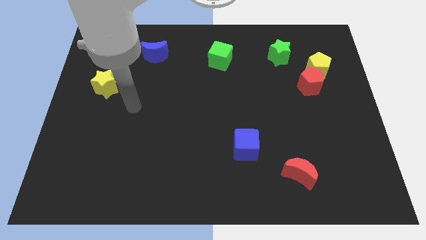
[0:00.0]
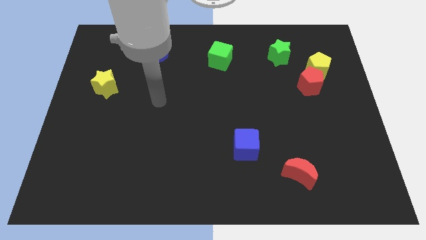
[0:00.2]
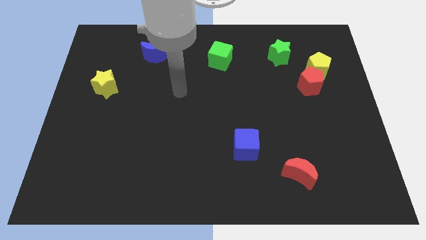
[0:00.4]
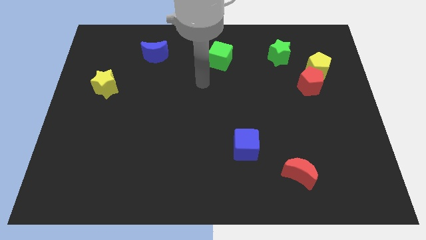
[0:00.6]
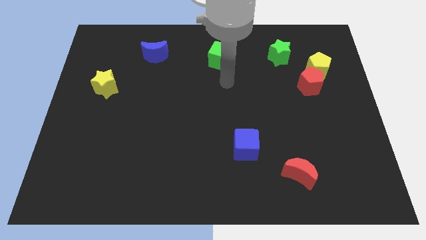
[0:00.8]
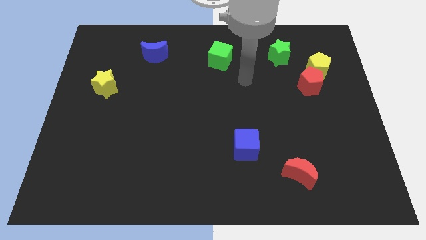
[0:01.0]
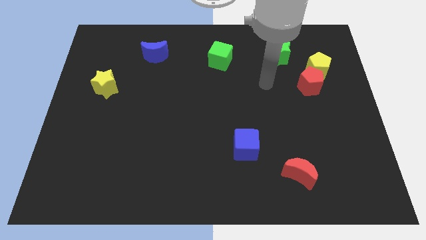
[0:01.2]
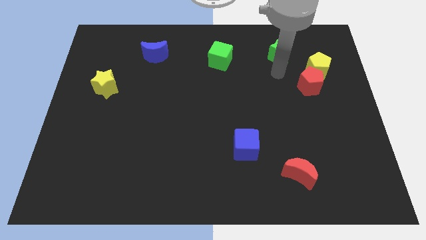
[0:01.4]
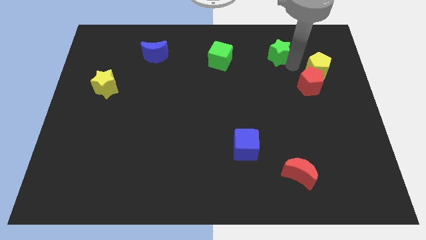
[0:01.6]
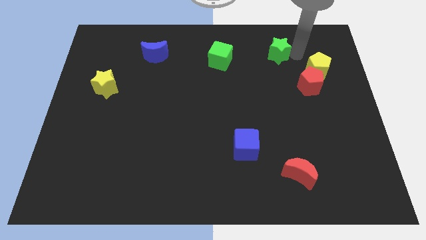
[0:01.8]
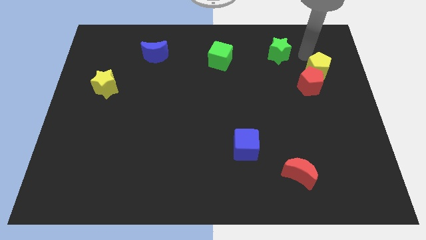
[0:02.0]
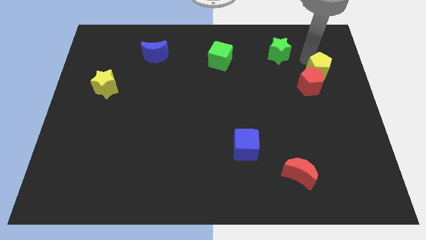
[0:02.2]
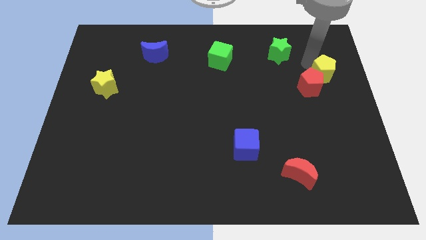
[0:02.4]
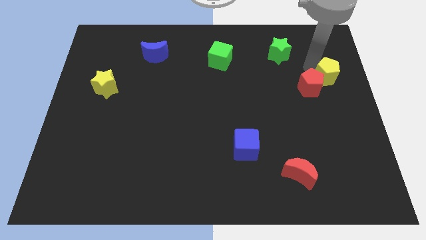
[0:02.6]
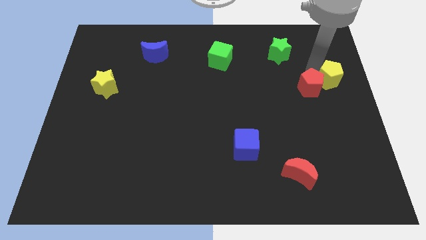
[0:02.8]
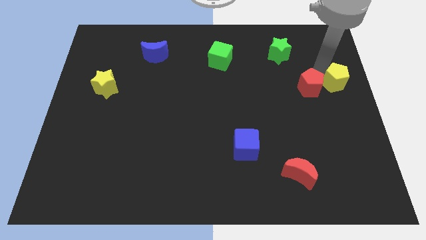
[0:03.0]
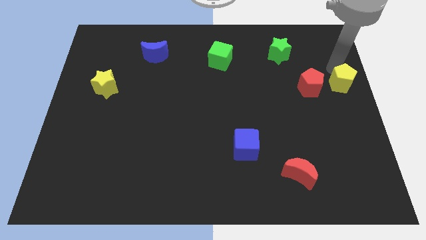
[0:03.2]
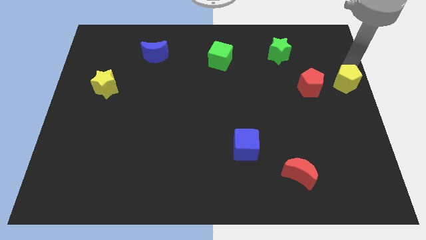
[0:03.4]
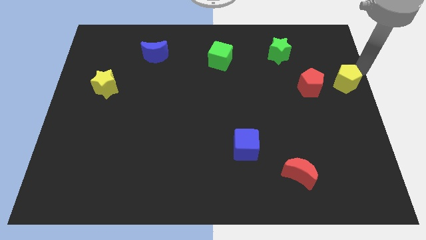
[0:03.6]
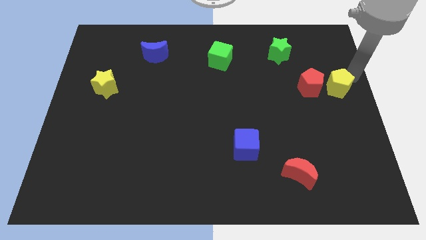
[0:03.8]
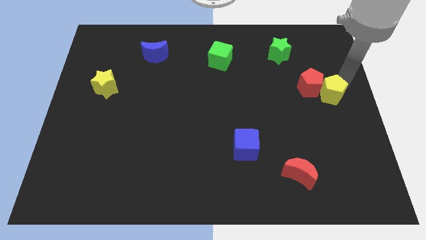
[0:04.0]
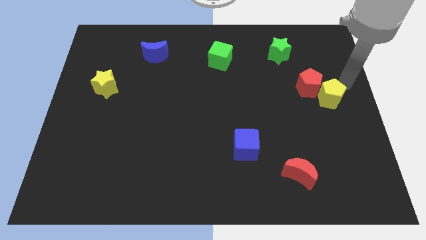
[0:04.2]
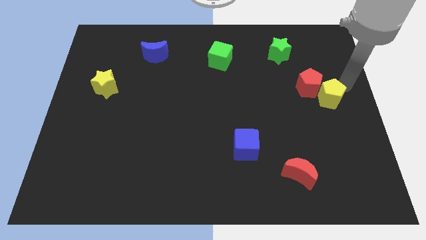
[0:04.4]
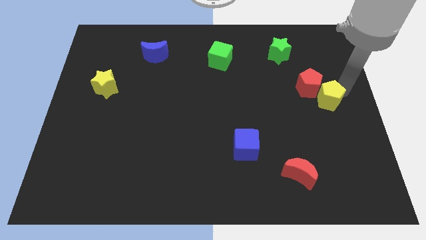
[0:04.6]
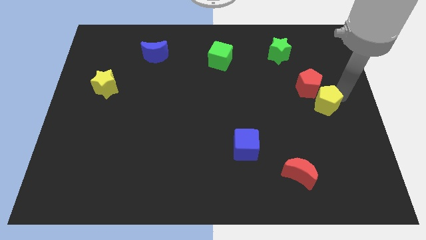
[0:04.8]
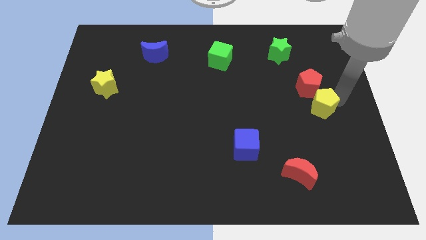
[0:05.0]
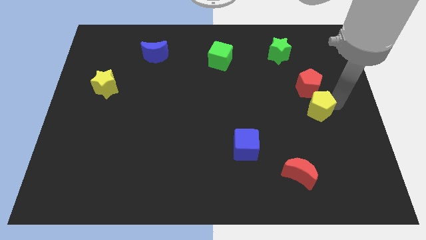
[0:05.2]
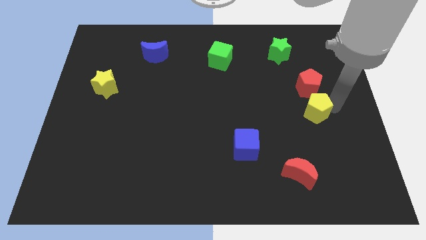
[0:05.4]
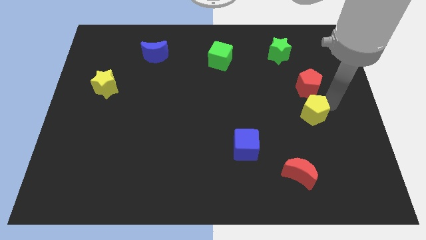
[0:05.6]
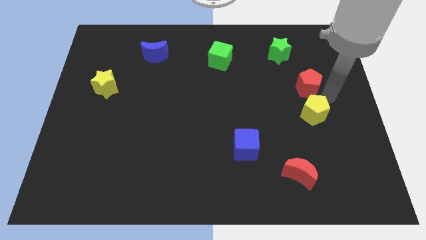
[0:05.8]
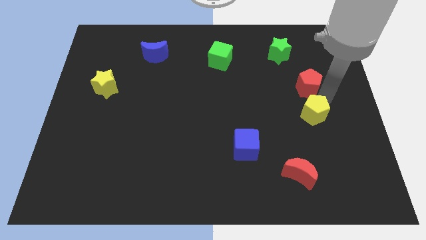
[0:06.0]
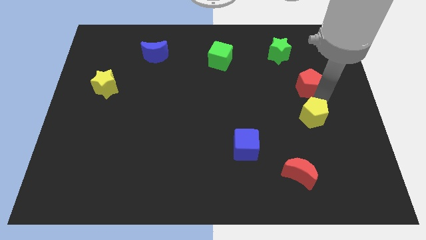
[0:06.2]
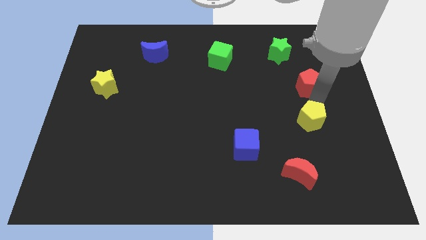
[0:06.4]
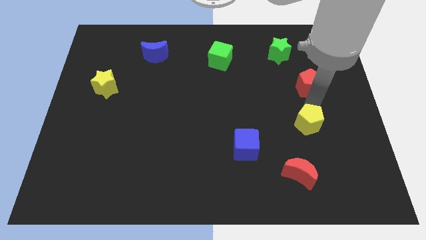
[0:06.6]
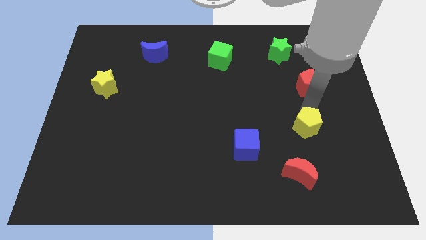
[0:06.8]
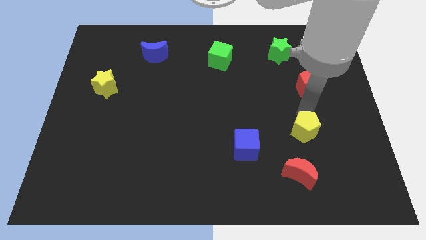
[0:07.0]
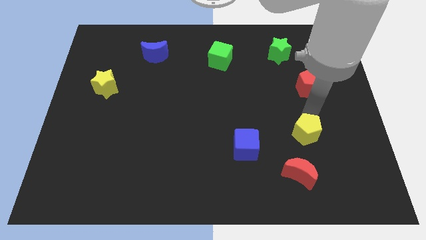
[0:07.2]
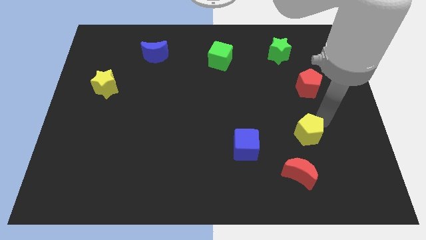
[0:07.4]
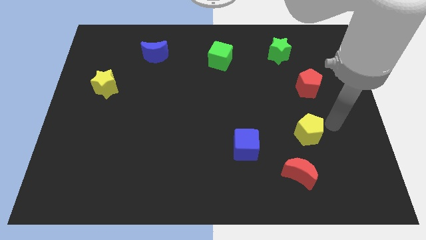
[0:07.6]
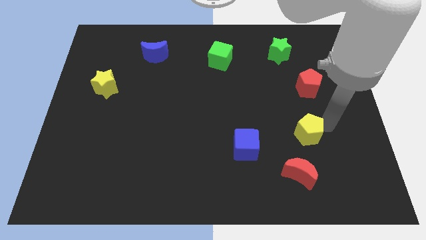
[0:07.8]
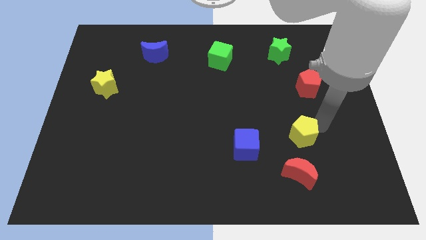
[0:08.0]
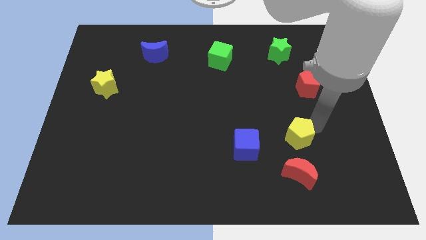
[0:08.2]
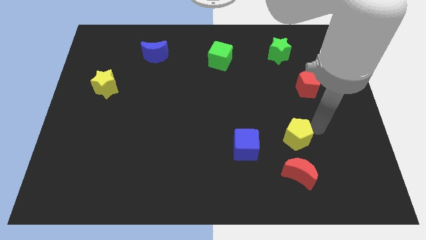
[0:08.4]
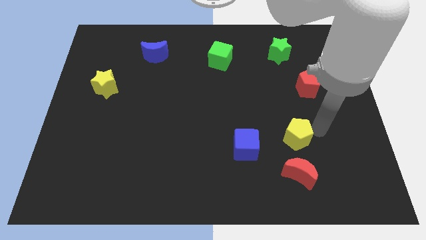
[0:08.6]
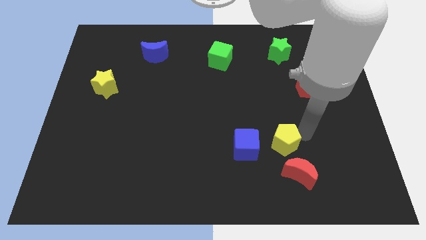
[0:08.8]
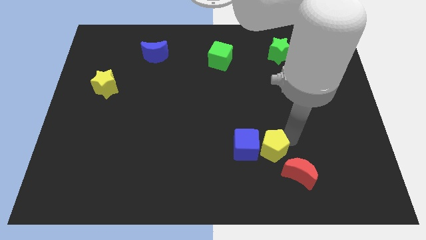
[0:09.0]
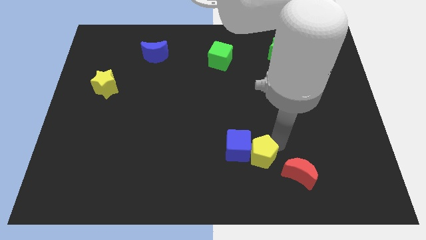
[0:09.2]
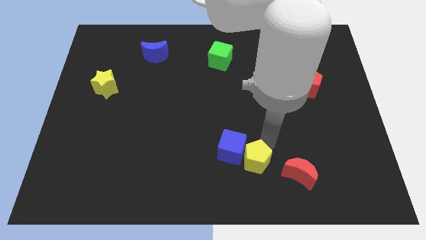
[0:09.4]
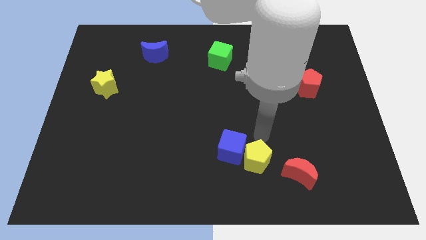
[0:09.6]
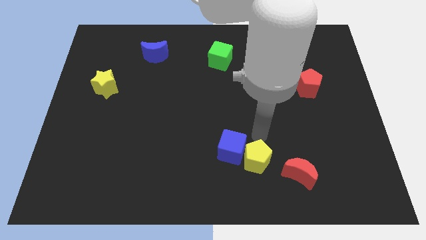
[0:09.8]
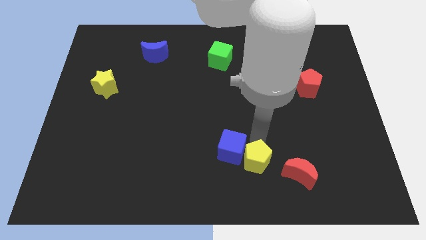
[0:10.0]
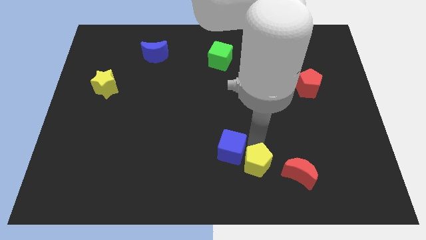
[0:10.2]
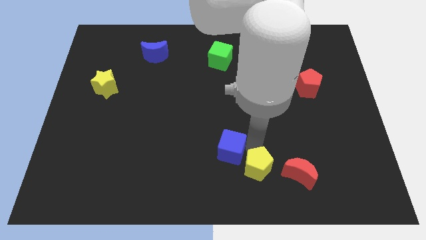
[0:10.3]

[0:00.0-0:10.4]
slide the yellow pentagon to the bottom side

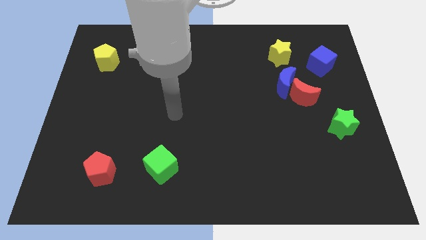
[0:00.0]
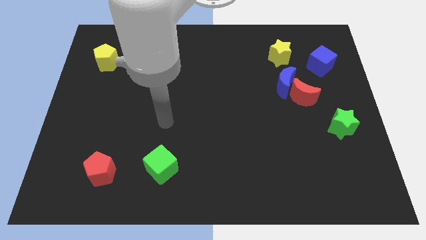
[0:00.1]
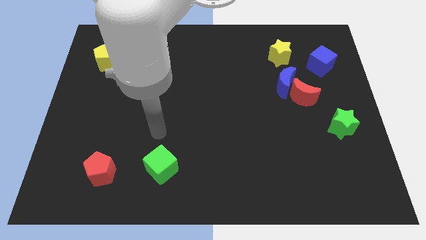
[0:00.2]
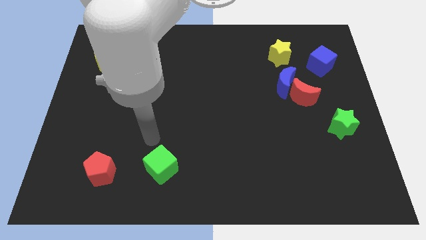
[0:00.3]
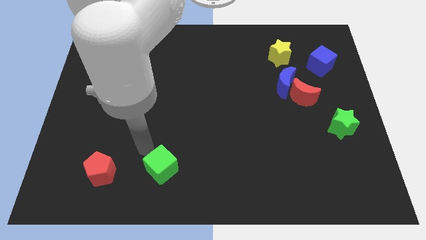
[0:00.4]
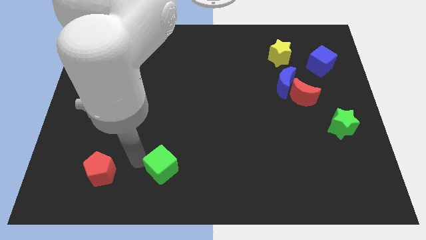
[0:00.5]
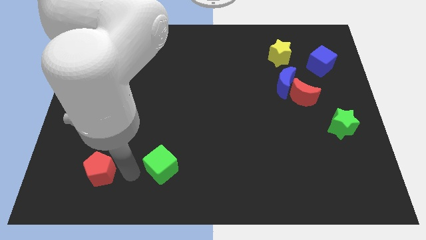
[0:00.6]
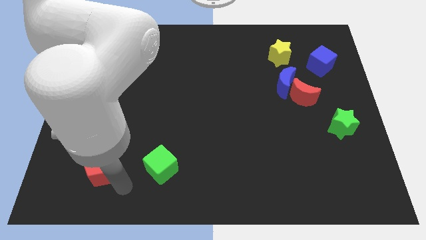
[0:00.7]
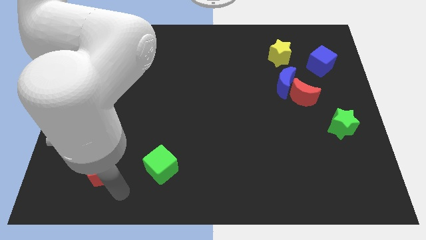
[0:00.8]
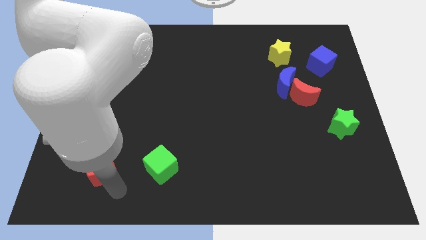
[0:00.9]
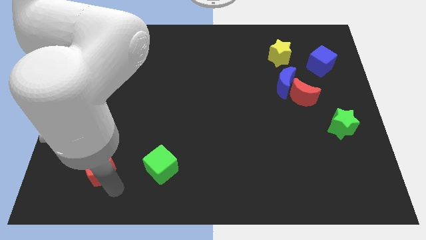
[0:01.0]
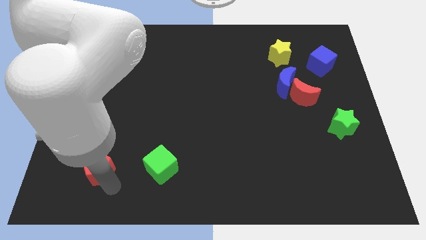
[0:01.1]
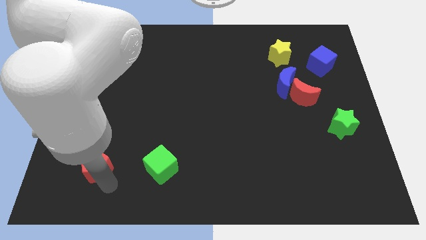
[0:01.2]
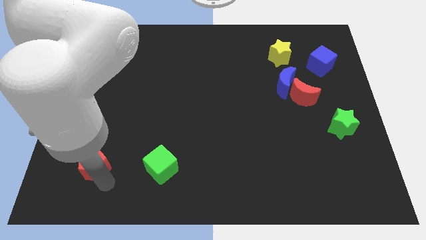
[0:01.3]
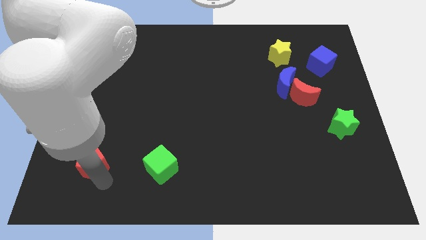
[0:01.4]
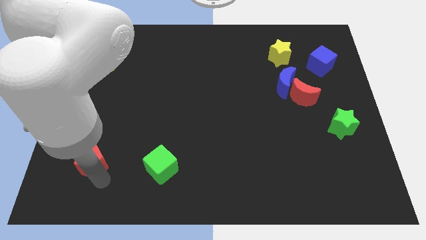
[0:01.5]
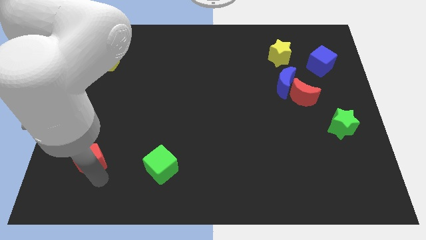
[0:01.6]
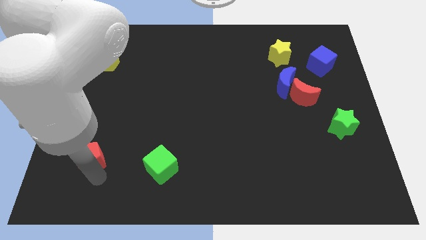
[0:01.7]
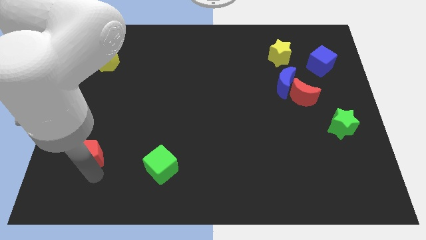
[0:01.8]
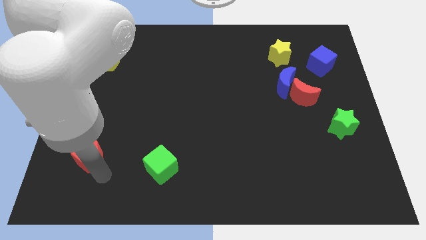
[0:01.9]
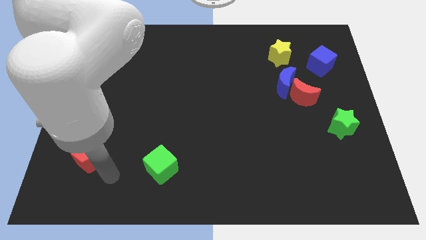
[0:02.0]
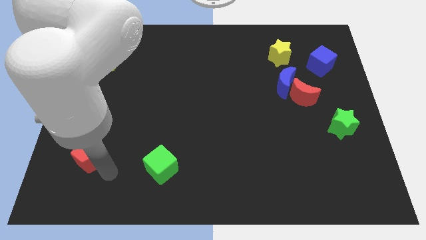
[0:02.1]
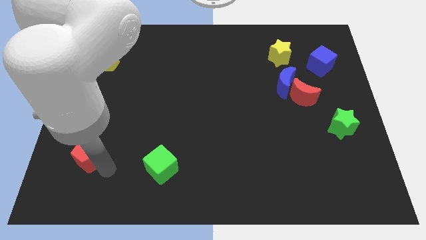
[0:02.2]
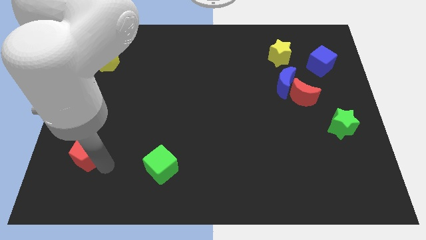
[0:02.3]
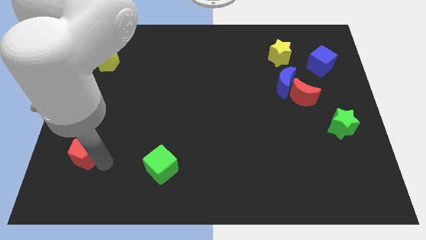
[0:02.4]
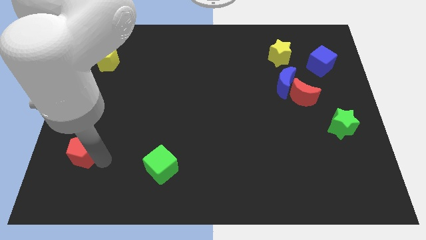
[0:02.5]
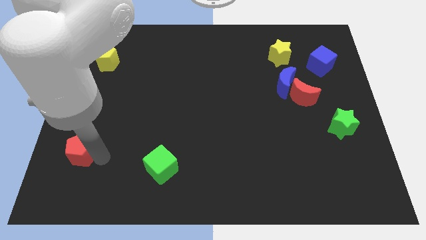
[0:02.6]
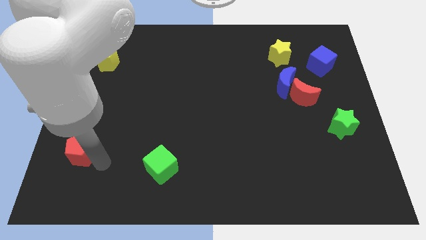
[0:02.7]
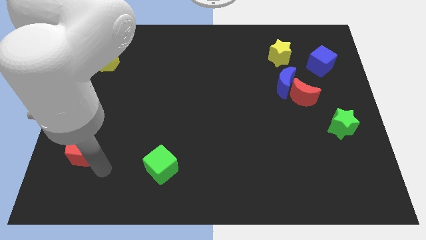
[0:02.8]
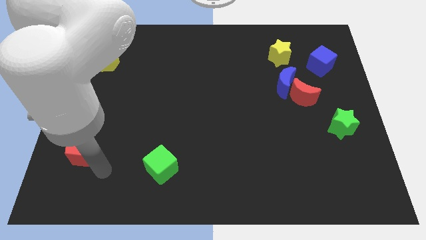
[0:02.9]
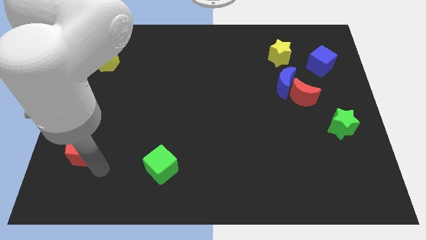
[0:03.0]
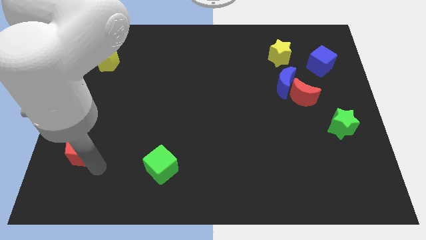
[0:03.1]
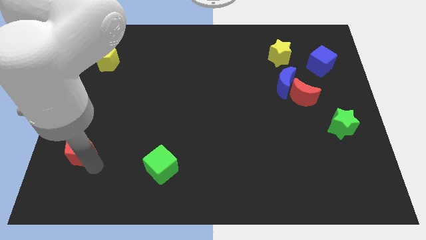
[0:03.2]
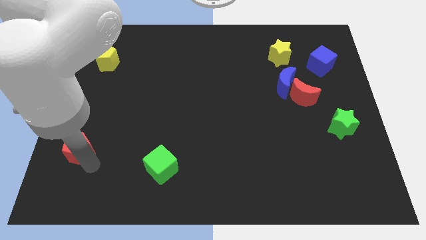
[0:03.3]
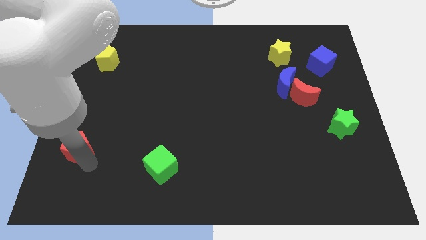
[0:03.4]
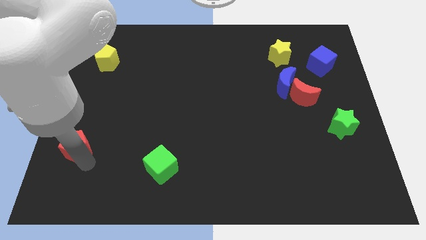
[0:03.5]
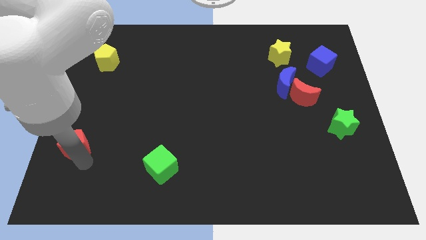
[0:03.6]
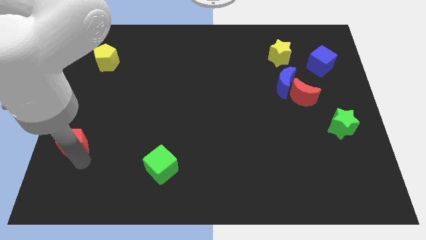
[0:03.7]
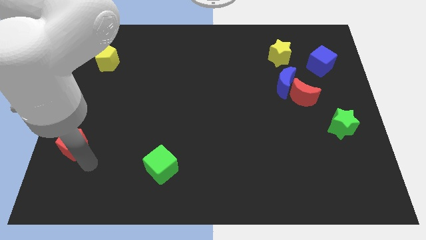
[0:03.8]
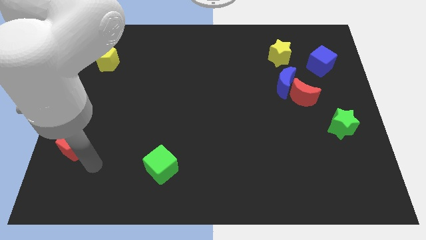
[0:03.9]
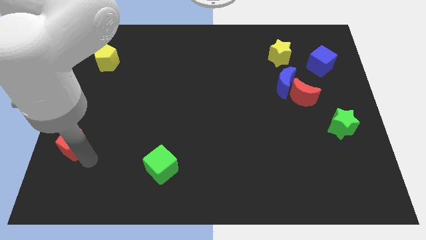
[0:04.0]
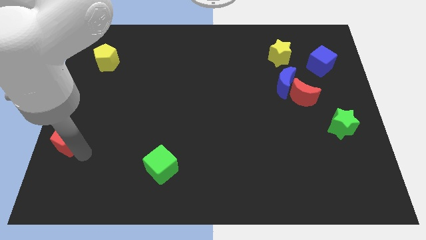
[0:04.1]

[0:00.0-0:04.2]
slide the red pentagon to the left side of the board
